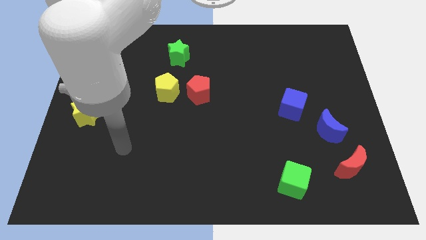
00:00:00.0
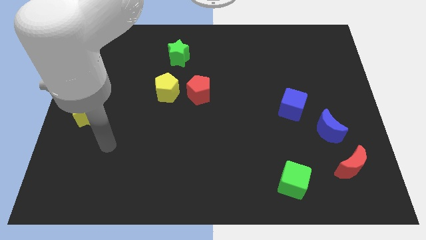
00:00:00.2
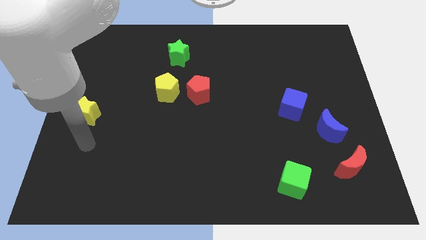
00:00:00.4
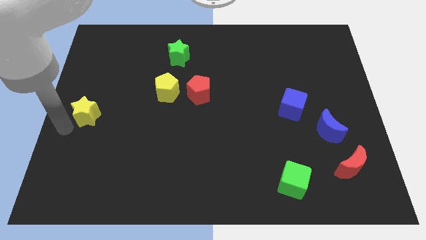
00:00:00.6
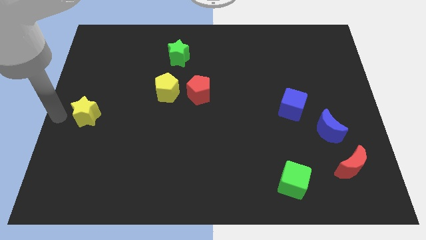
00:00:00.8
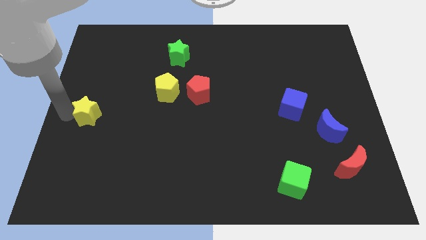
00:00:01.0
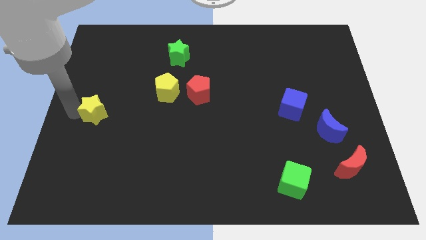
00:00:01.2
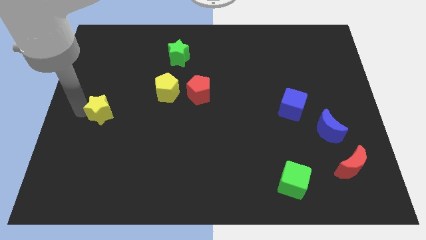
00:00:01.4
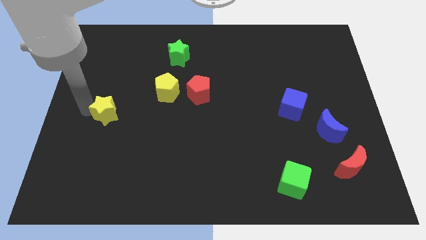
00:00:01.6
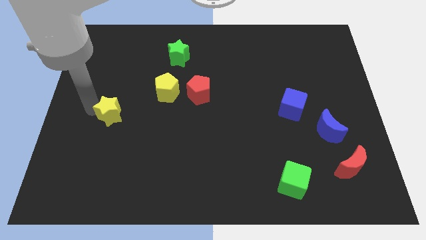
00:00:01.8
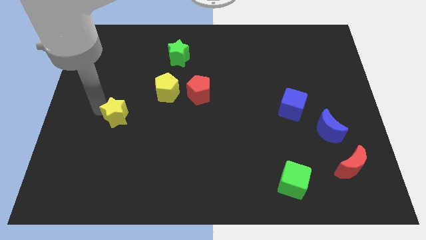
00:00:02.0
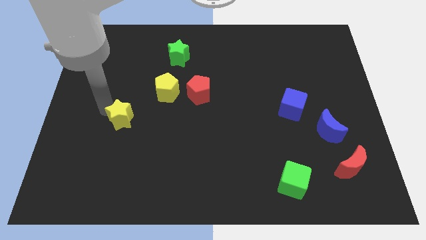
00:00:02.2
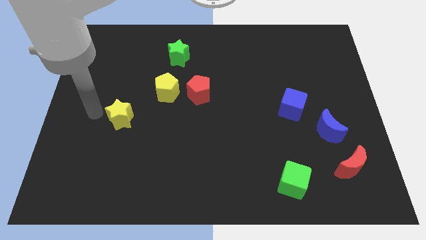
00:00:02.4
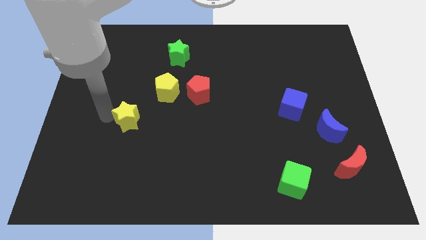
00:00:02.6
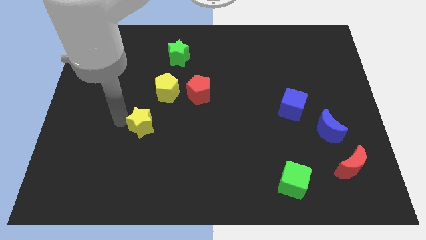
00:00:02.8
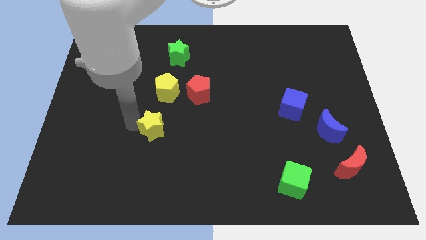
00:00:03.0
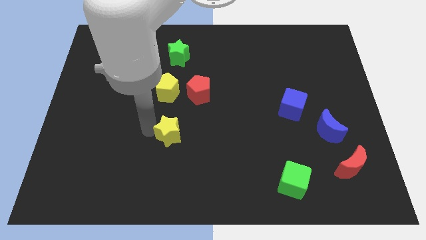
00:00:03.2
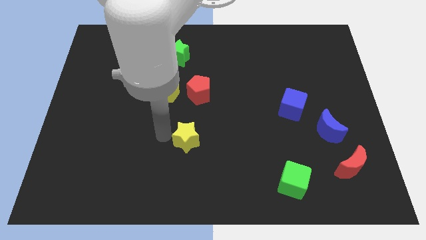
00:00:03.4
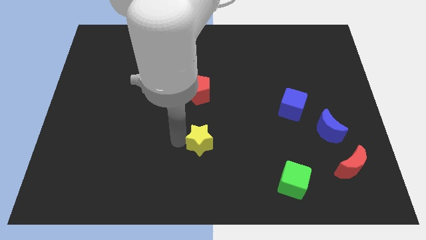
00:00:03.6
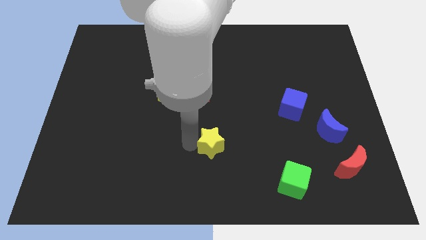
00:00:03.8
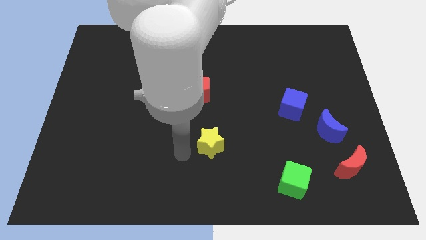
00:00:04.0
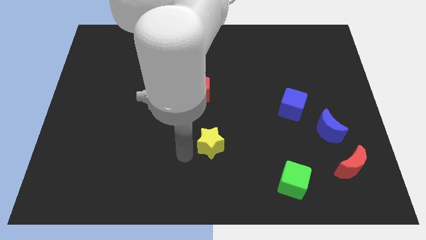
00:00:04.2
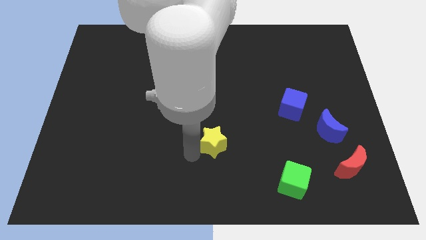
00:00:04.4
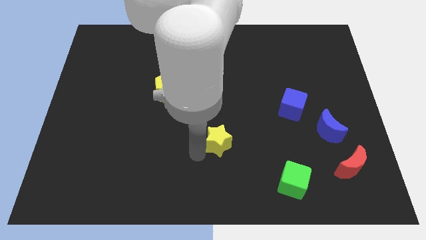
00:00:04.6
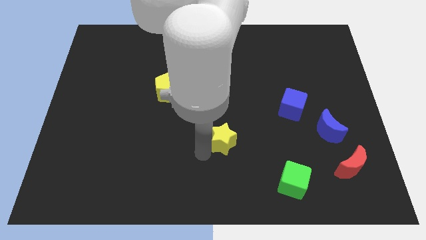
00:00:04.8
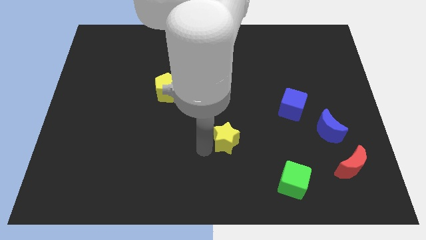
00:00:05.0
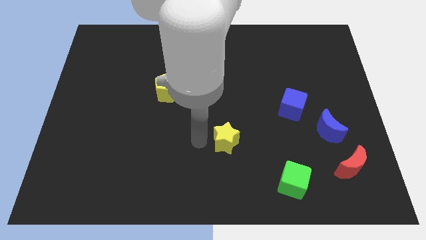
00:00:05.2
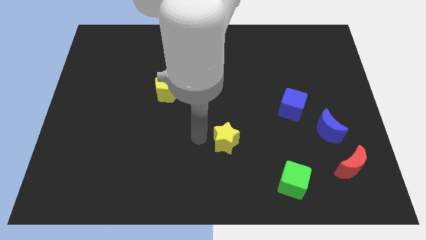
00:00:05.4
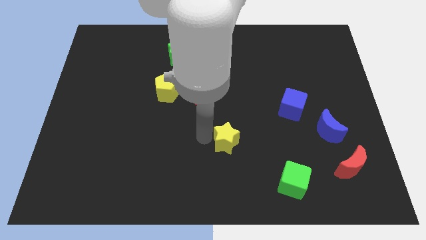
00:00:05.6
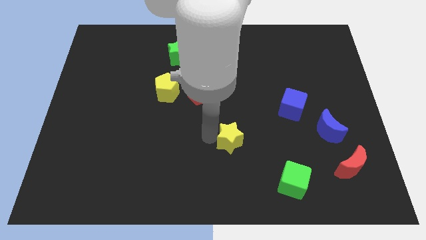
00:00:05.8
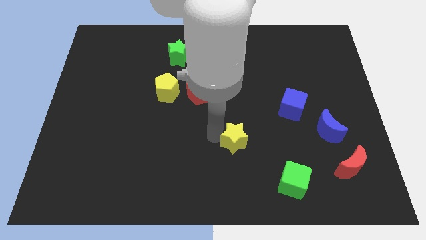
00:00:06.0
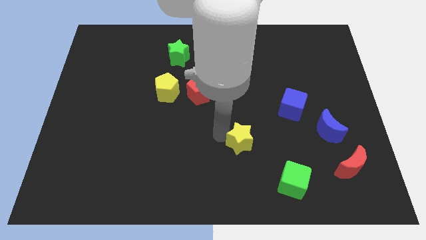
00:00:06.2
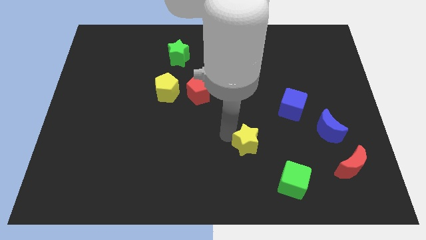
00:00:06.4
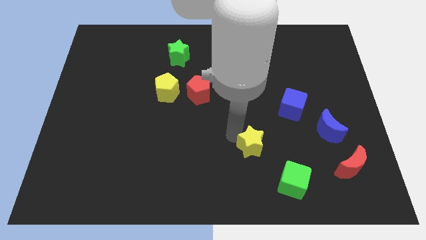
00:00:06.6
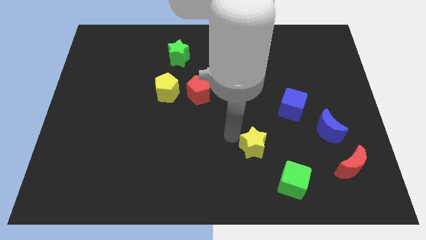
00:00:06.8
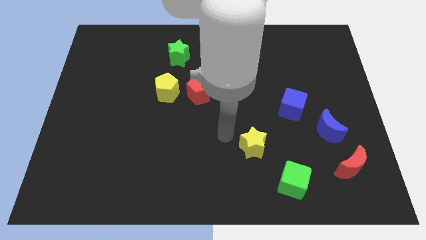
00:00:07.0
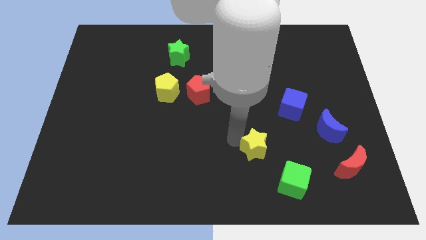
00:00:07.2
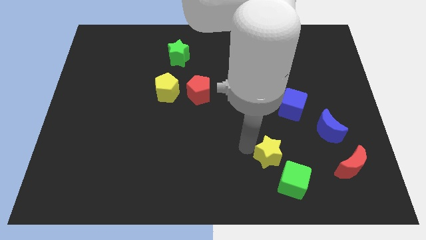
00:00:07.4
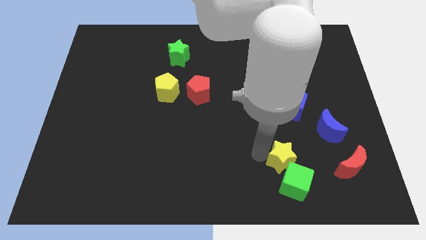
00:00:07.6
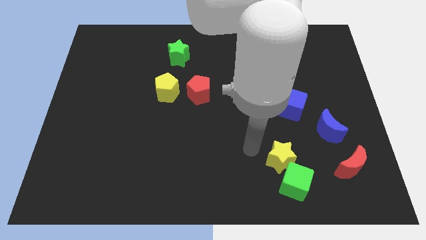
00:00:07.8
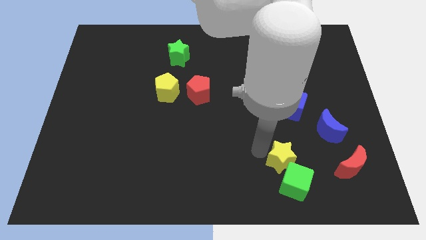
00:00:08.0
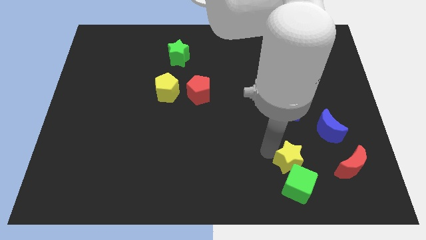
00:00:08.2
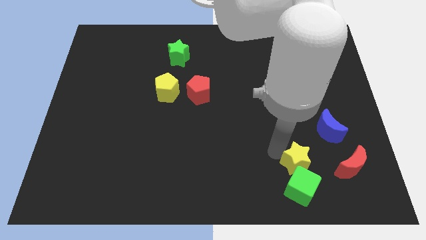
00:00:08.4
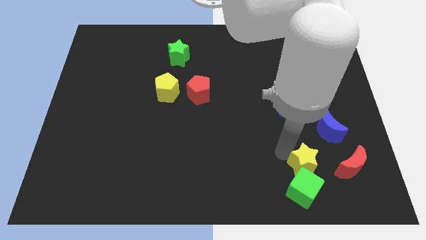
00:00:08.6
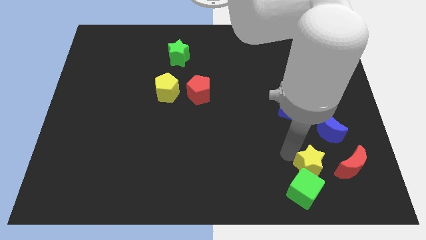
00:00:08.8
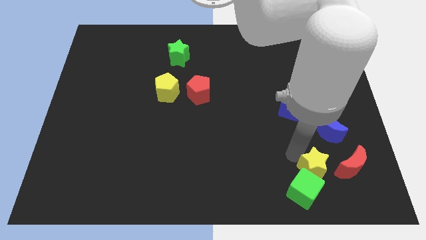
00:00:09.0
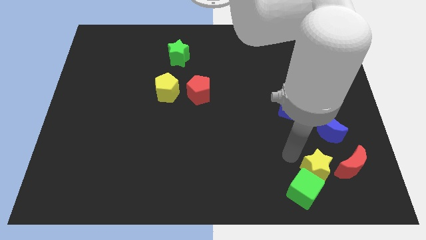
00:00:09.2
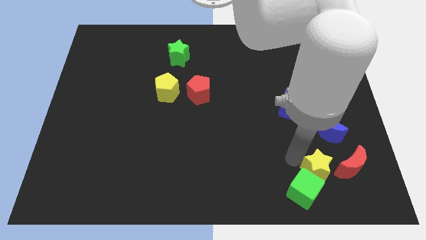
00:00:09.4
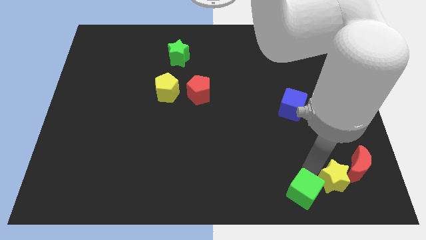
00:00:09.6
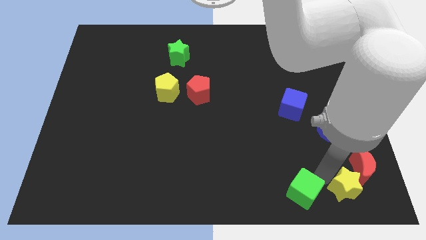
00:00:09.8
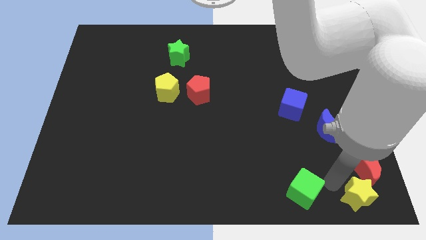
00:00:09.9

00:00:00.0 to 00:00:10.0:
put the yellow star to the bottom right

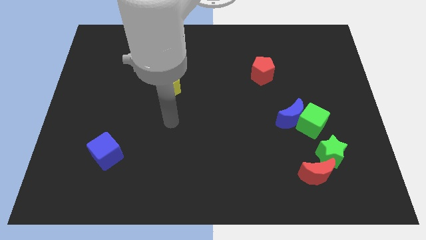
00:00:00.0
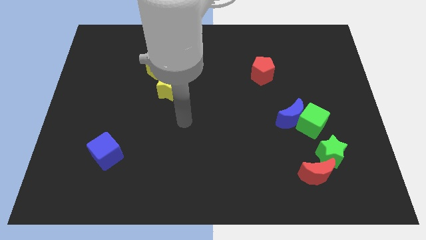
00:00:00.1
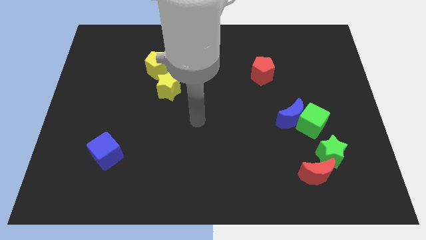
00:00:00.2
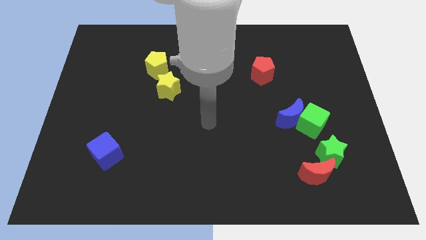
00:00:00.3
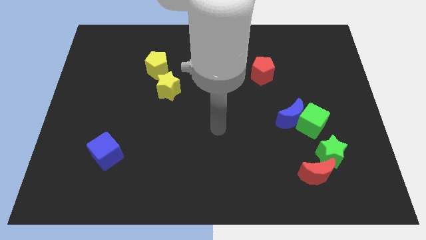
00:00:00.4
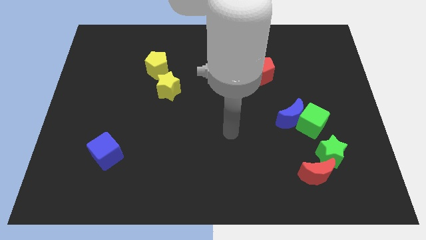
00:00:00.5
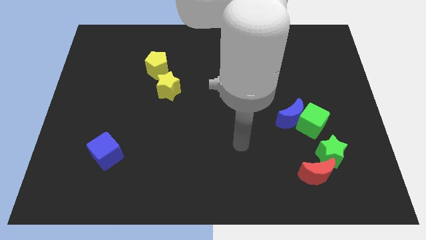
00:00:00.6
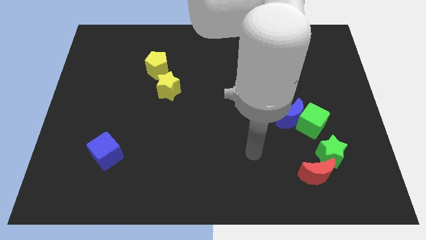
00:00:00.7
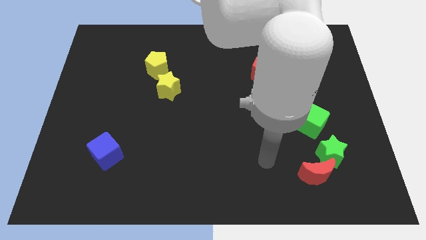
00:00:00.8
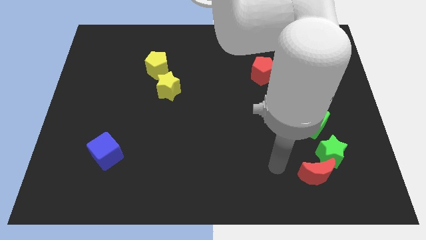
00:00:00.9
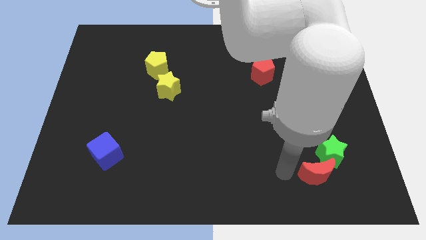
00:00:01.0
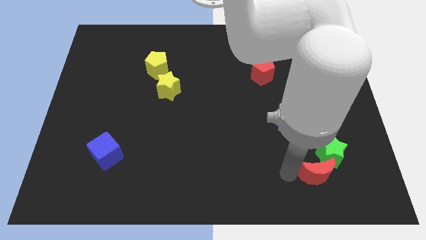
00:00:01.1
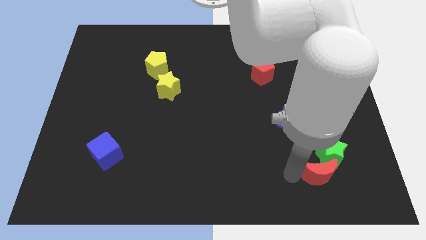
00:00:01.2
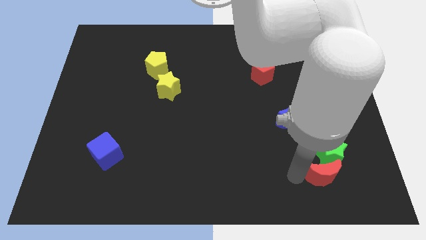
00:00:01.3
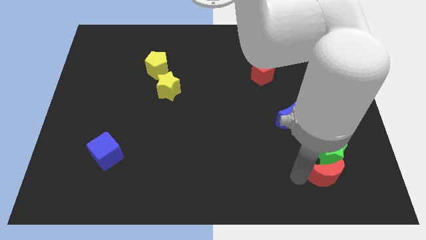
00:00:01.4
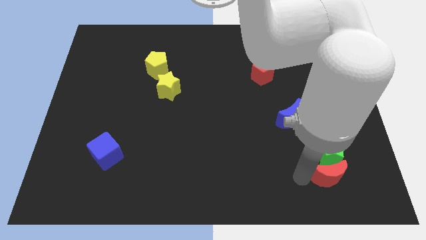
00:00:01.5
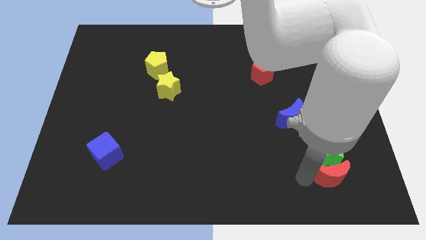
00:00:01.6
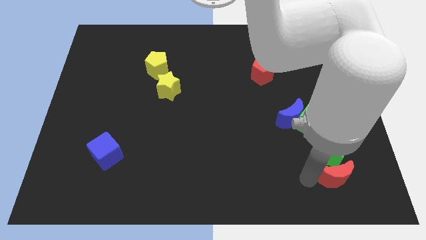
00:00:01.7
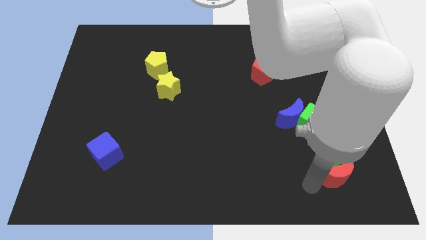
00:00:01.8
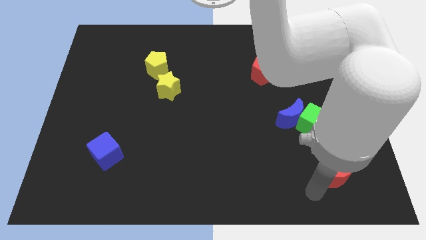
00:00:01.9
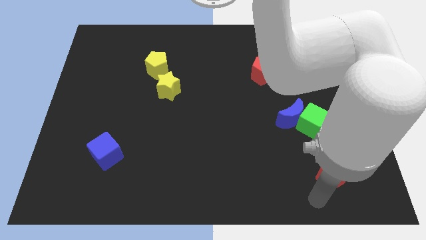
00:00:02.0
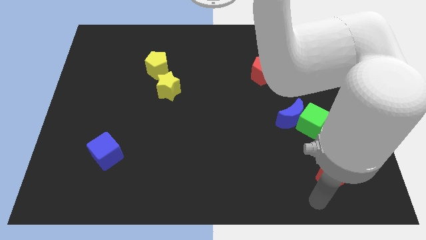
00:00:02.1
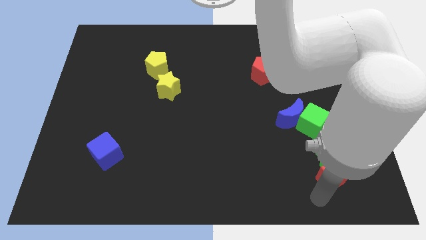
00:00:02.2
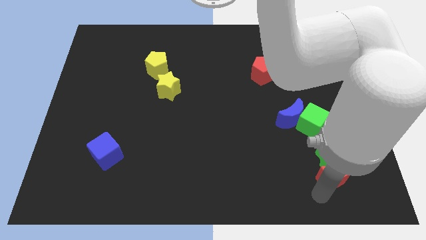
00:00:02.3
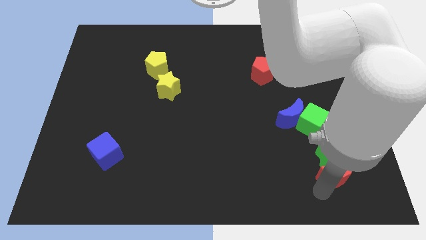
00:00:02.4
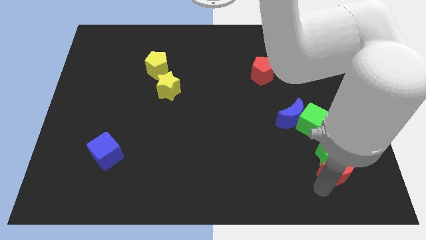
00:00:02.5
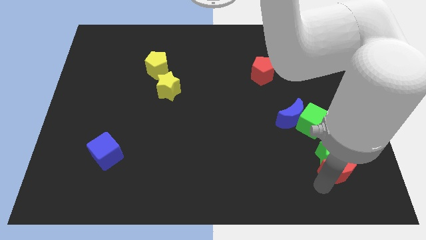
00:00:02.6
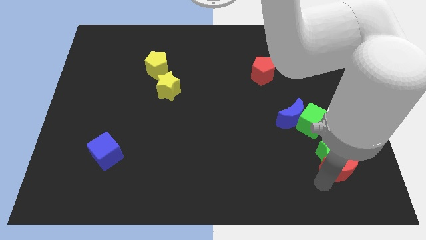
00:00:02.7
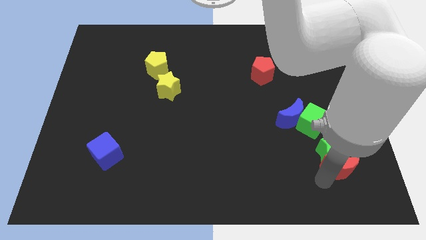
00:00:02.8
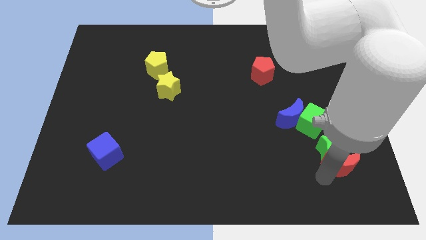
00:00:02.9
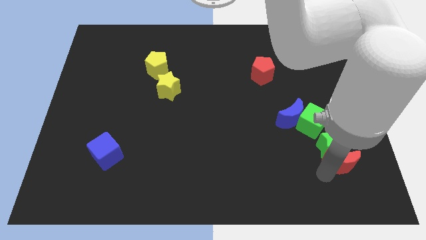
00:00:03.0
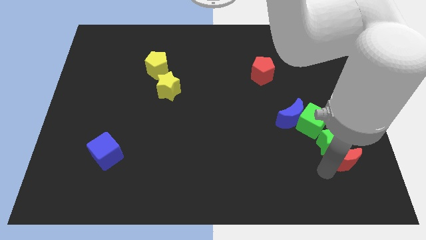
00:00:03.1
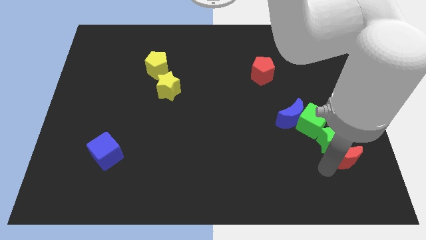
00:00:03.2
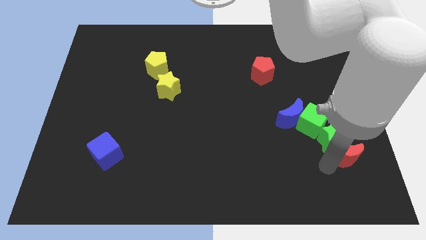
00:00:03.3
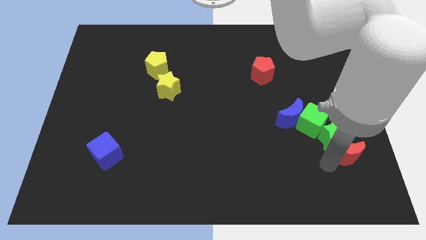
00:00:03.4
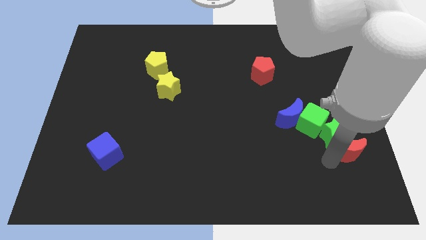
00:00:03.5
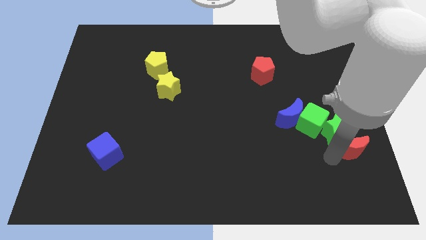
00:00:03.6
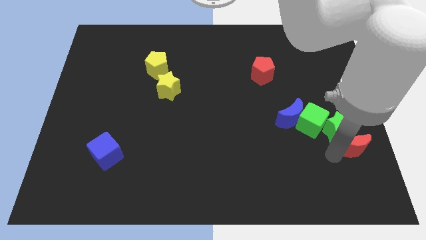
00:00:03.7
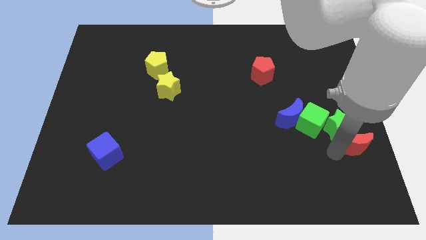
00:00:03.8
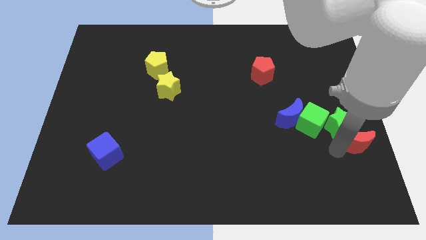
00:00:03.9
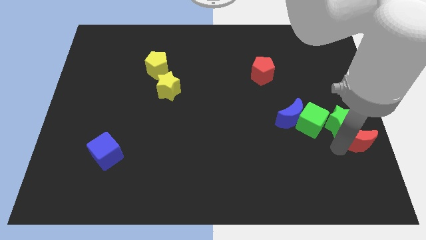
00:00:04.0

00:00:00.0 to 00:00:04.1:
push the red moon to the right side of the board
